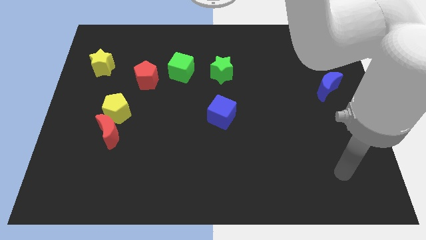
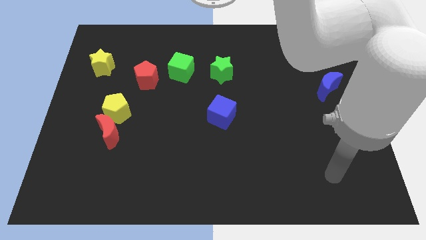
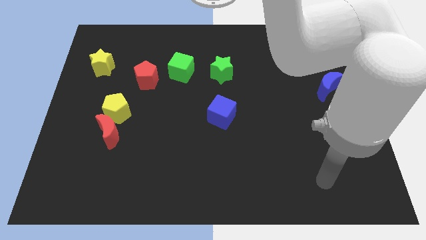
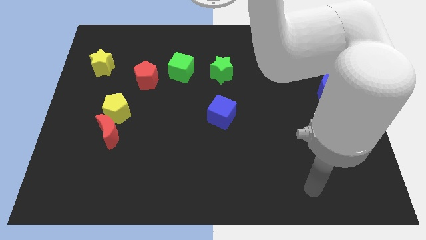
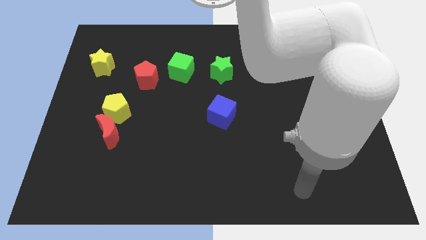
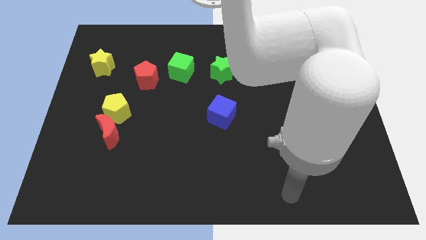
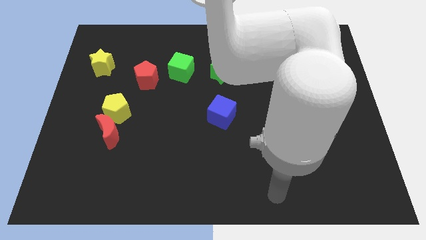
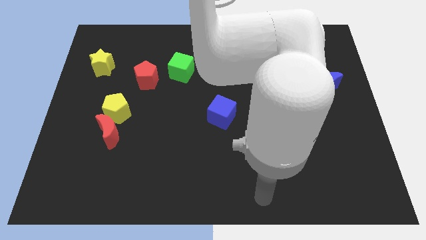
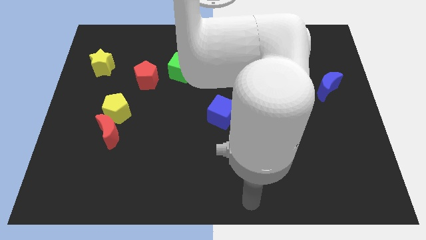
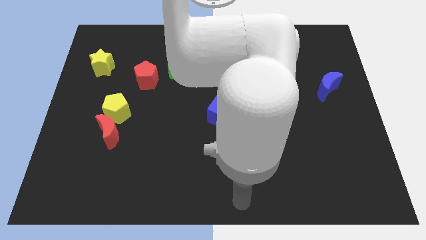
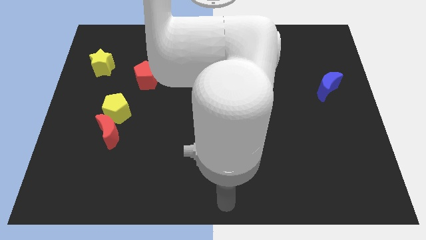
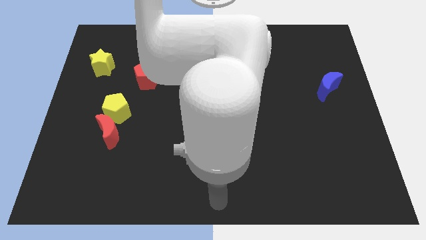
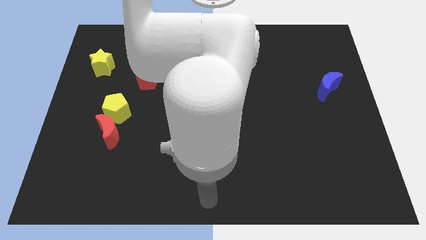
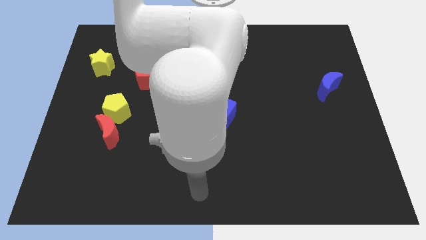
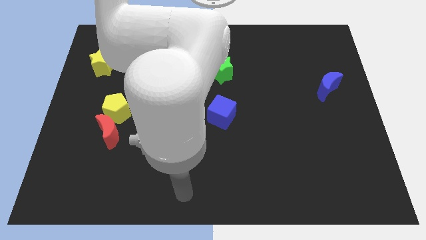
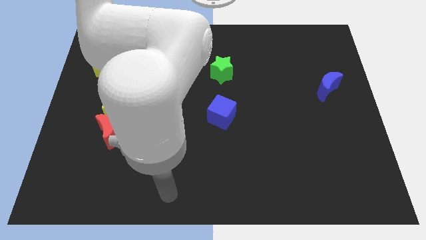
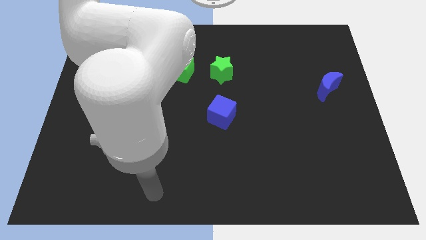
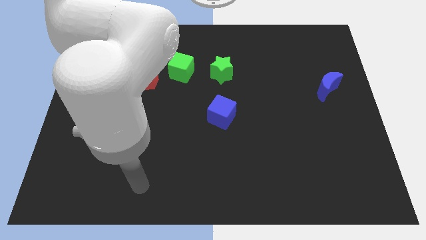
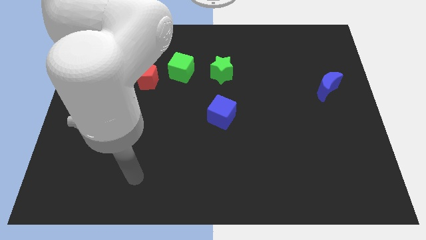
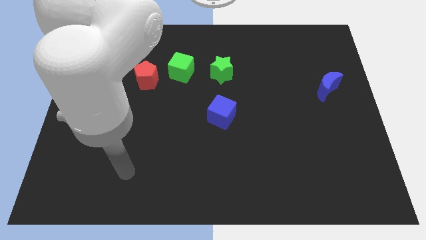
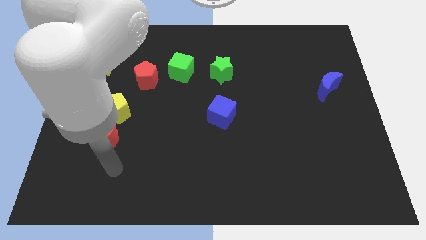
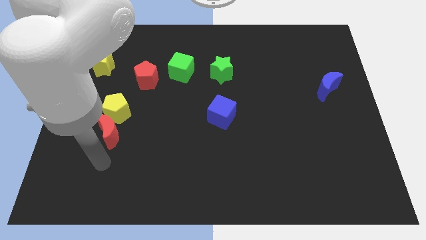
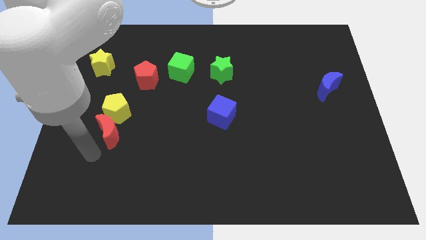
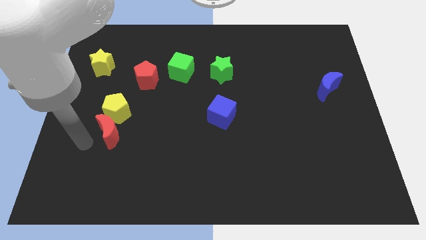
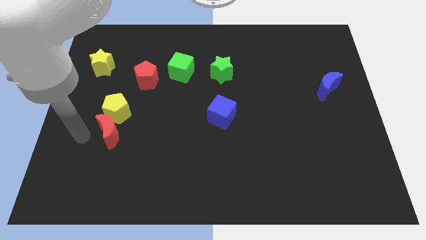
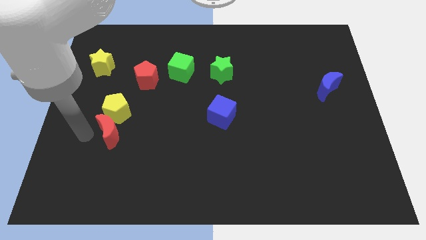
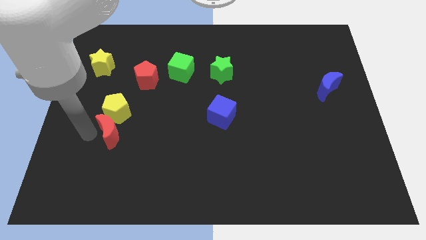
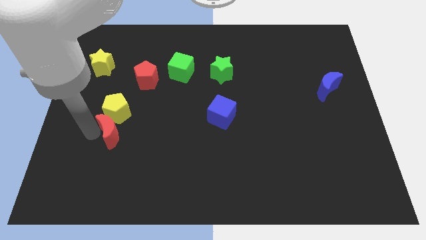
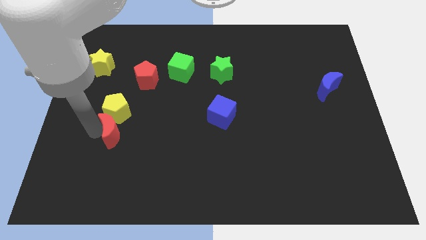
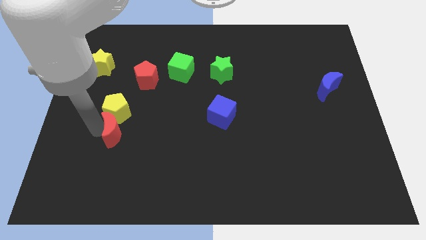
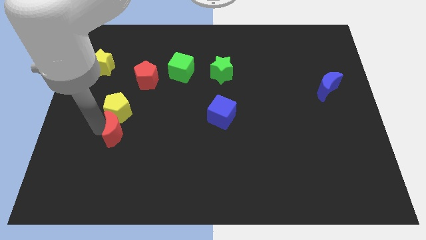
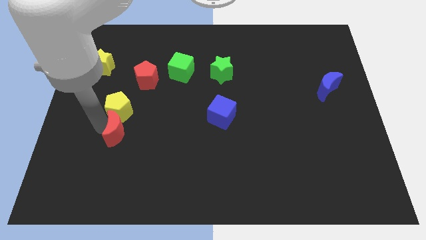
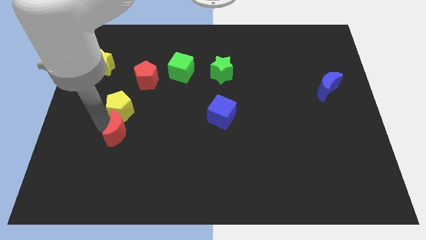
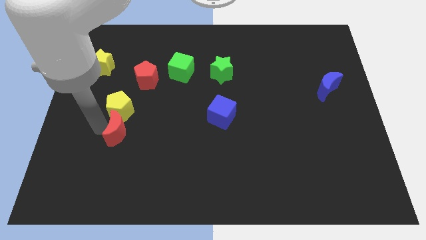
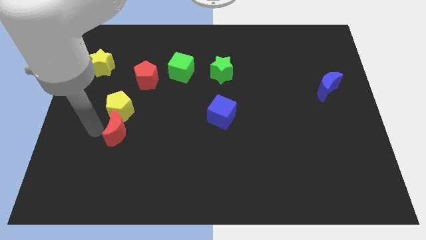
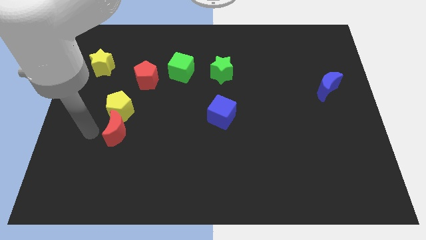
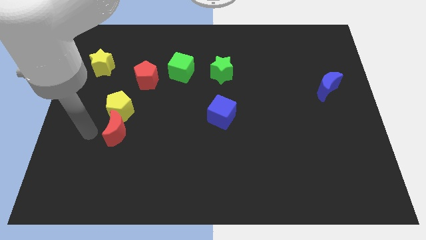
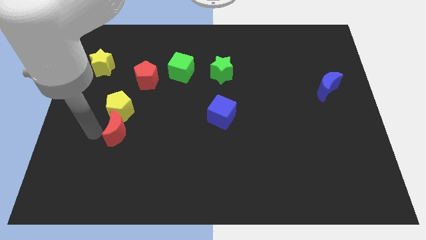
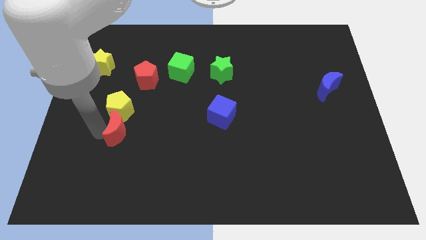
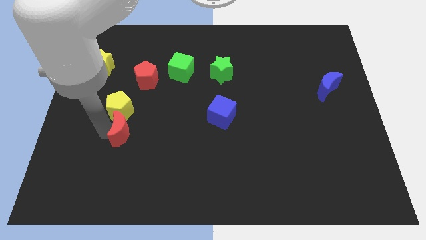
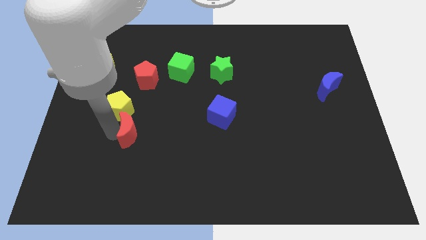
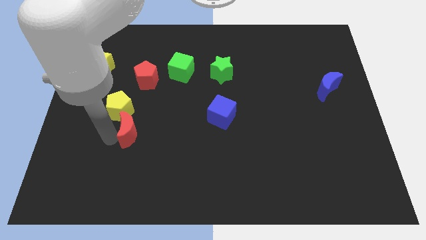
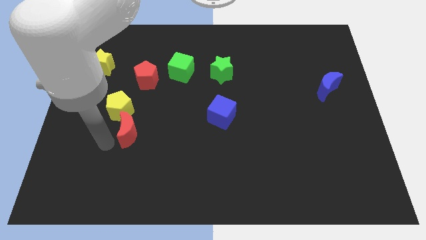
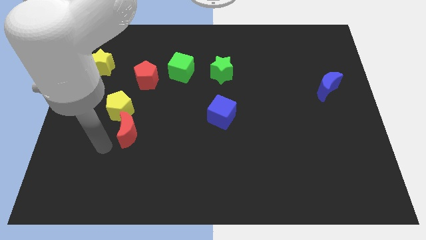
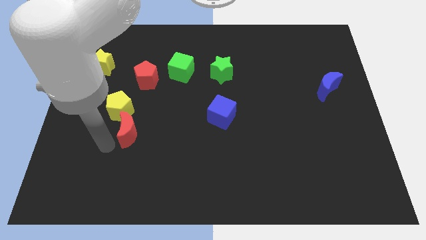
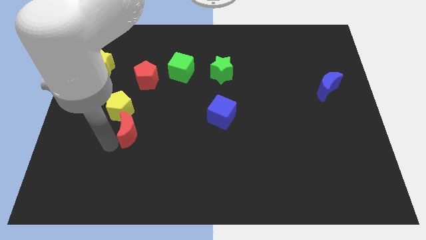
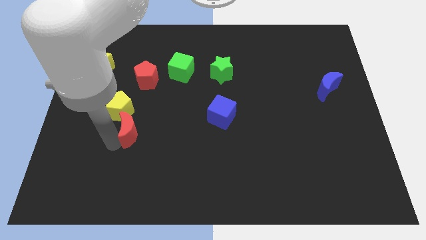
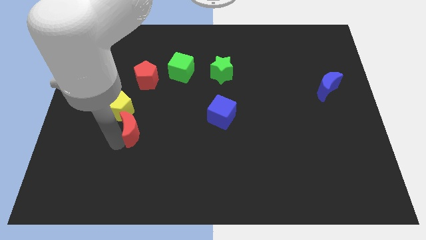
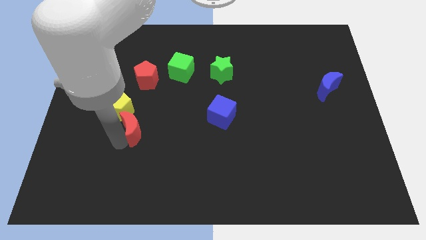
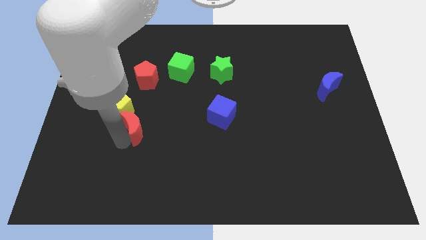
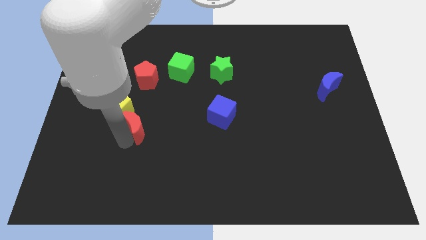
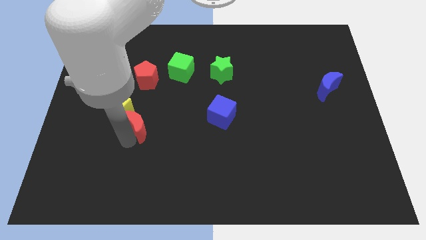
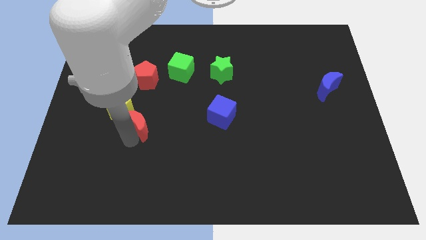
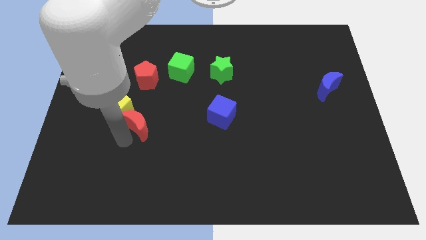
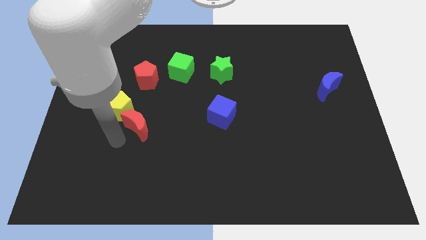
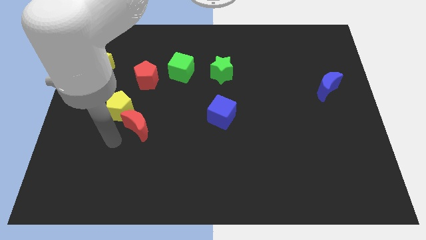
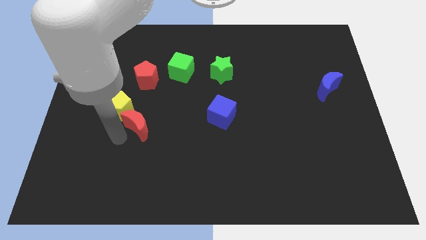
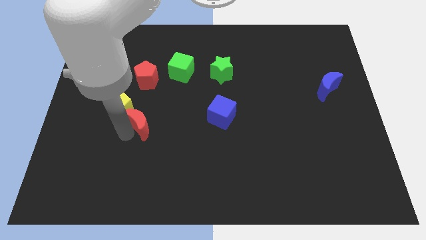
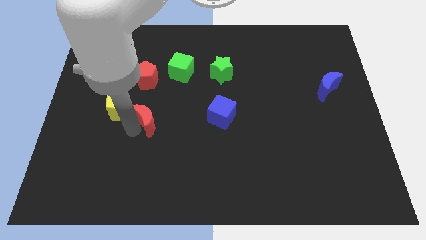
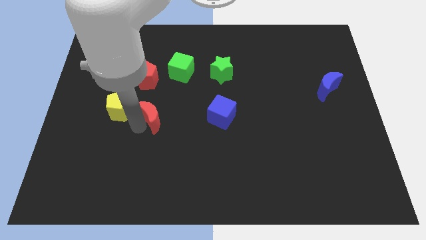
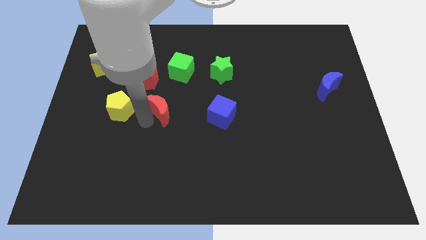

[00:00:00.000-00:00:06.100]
put the red moon to the middle of the board

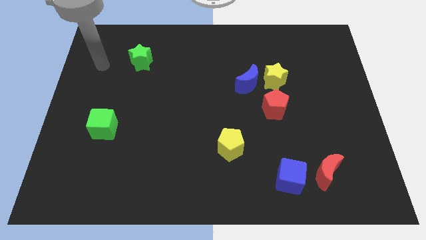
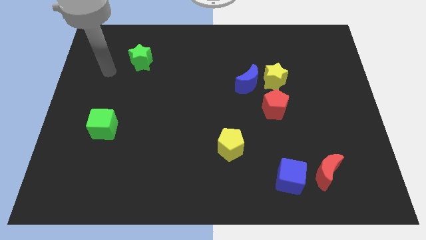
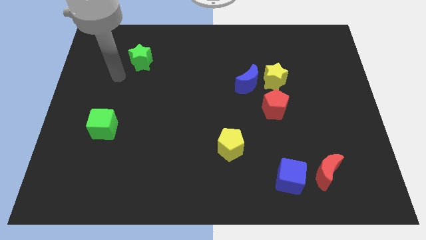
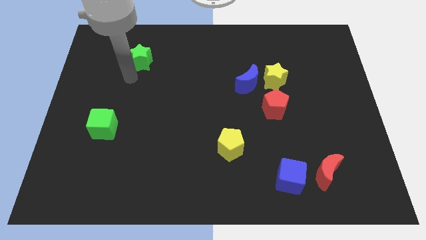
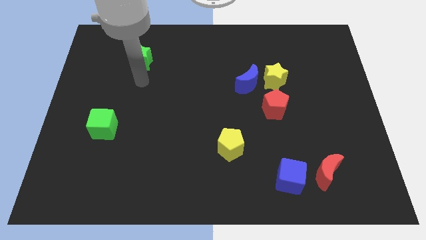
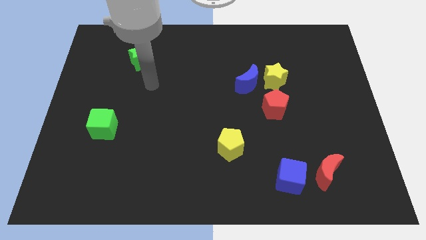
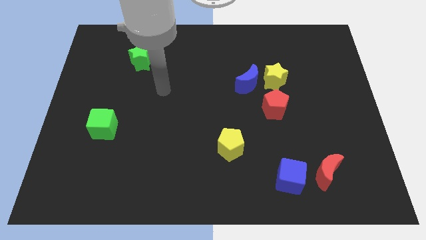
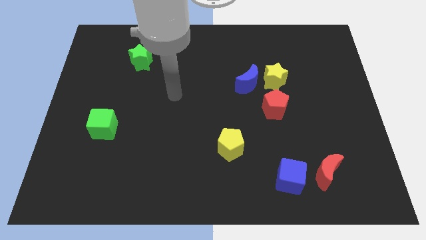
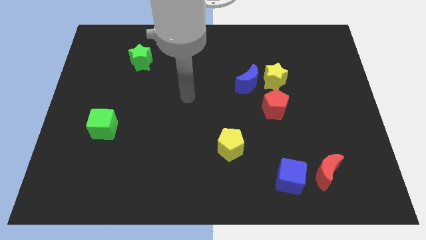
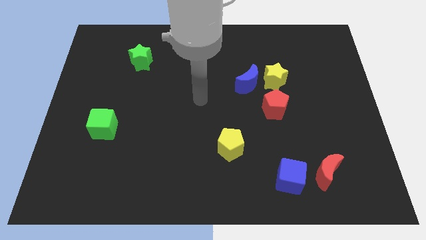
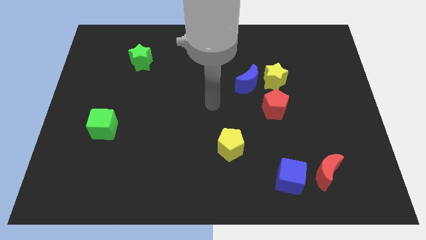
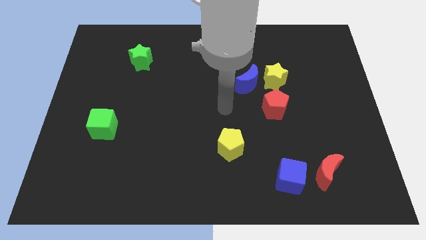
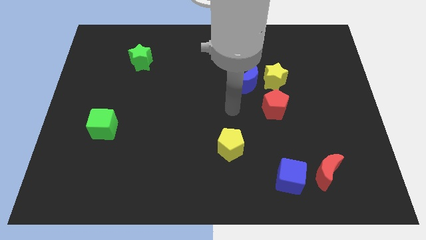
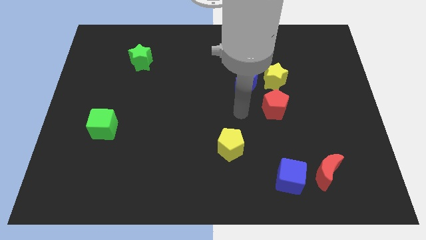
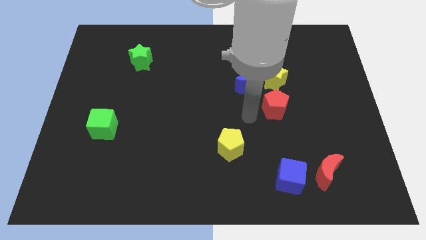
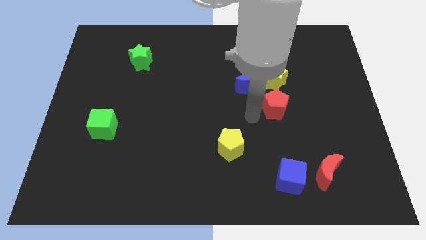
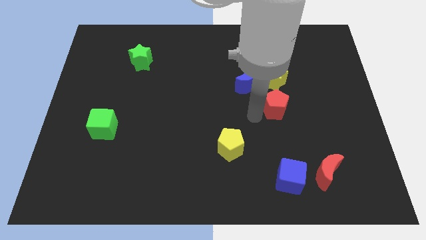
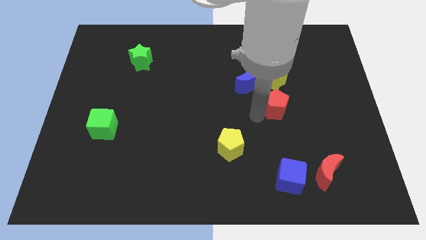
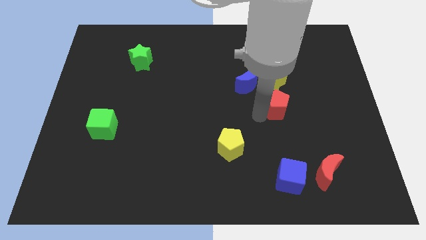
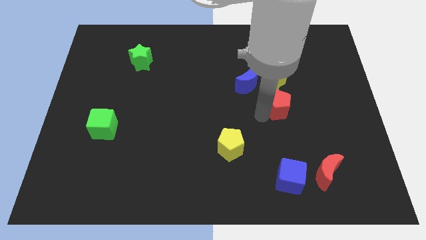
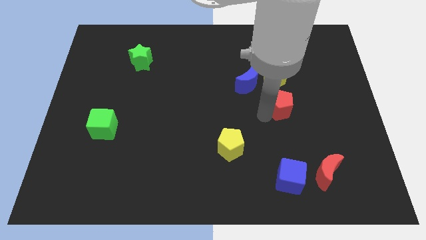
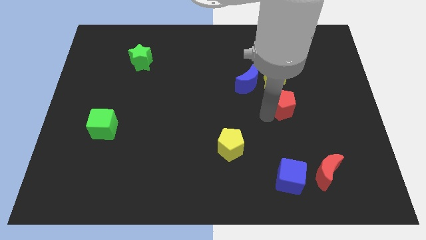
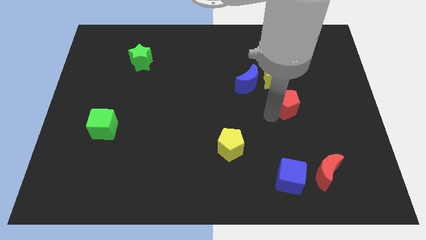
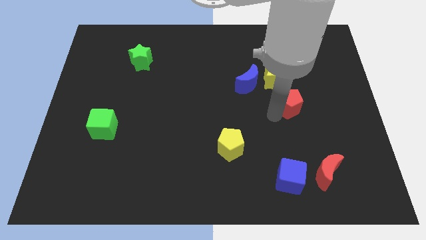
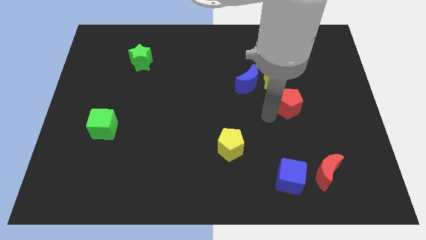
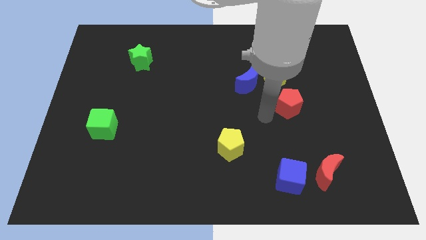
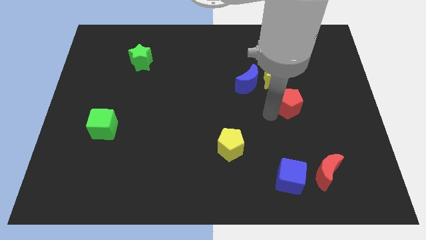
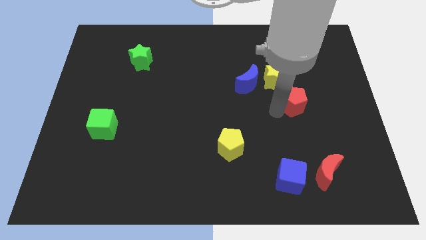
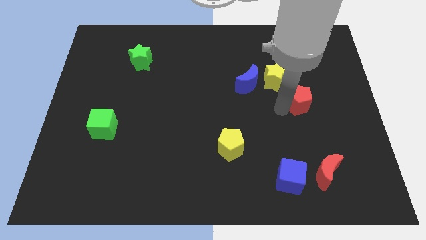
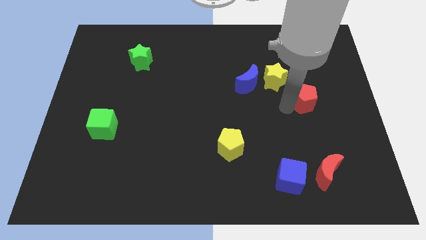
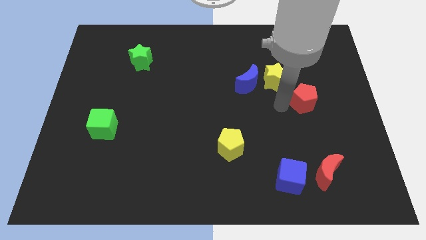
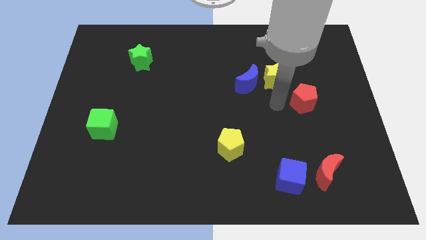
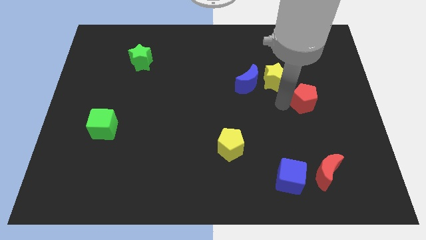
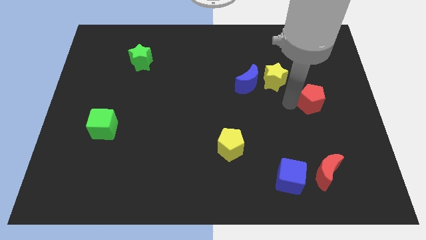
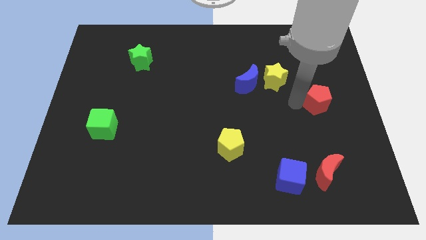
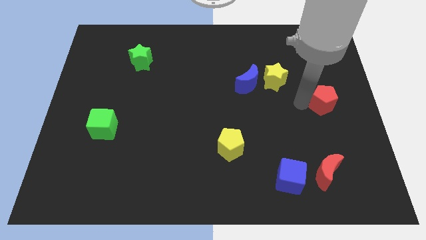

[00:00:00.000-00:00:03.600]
move the red pentagon to the right side of the board
